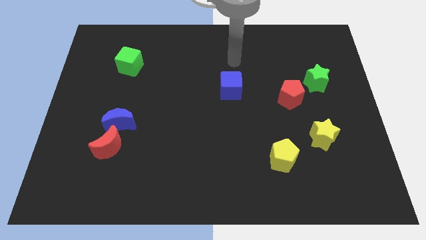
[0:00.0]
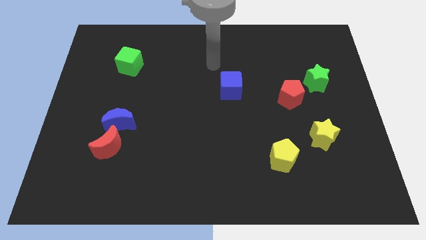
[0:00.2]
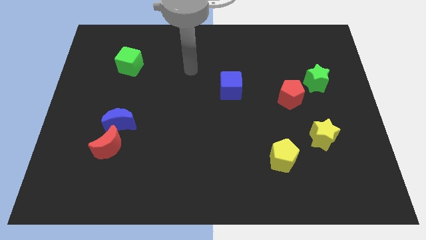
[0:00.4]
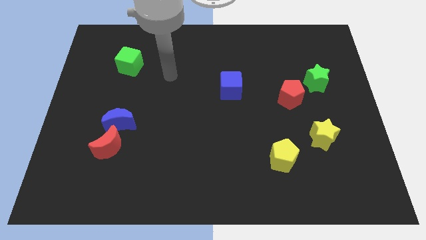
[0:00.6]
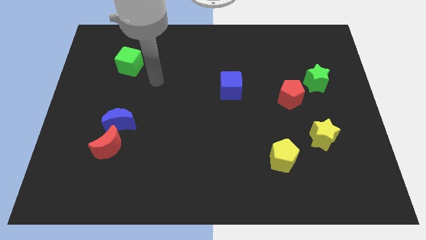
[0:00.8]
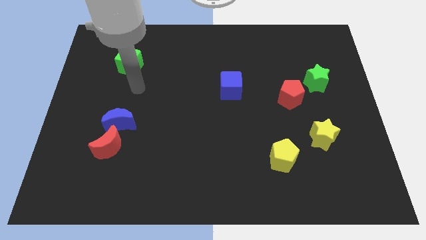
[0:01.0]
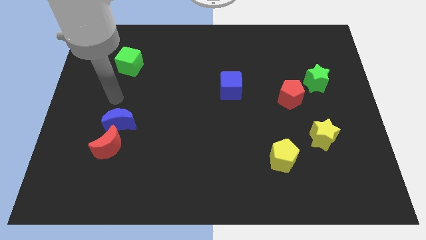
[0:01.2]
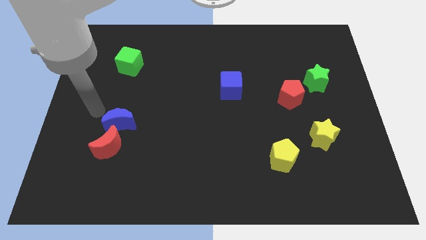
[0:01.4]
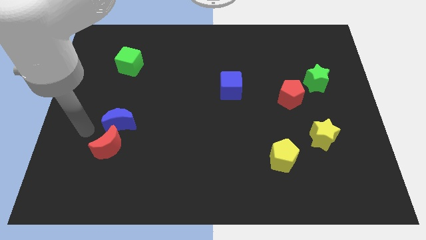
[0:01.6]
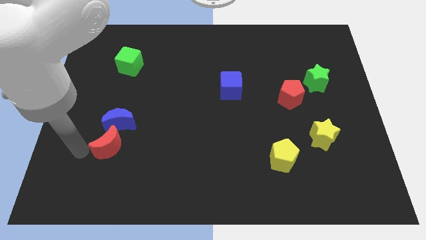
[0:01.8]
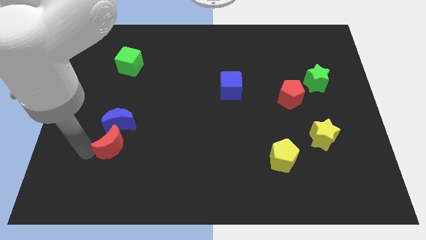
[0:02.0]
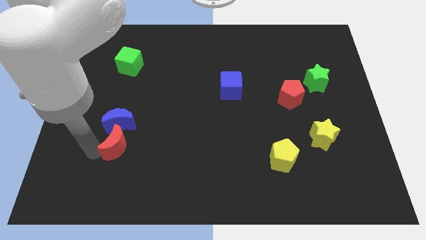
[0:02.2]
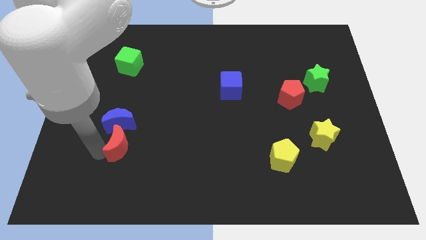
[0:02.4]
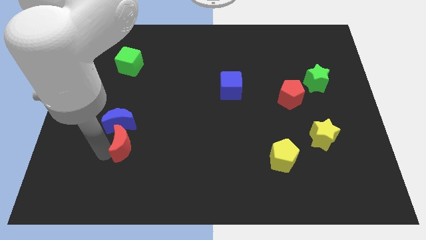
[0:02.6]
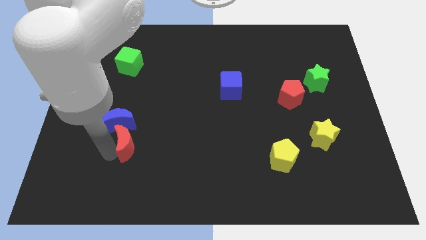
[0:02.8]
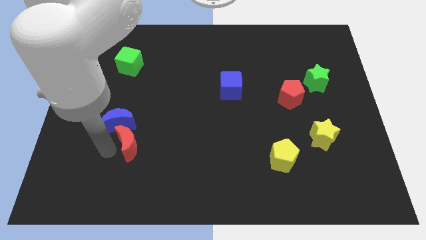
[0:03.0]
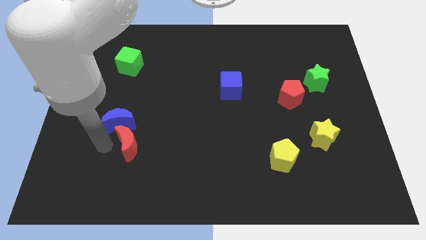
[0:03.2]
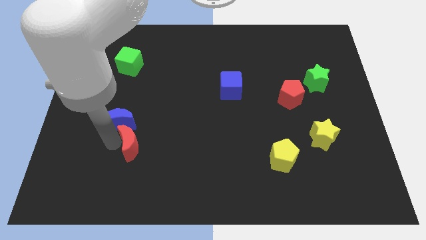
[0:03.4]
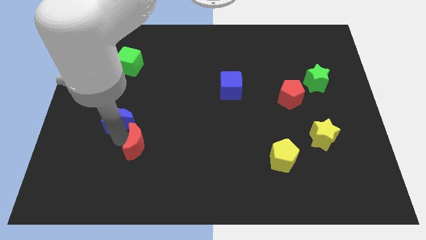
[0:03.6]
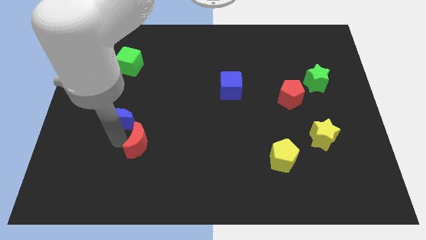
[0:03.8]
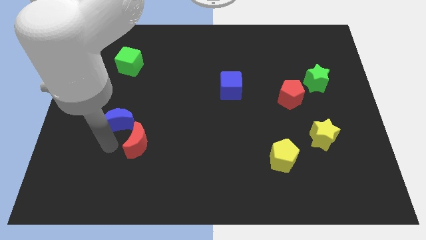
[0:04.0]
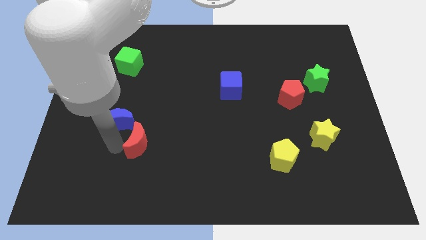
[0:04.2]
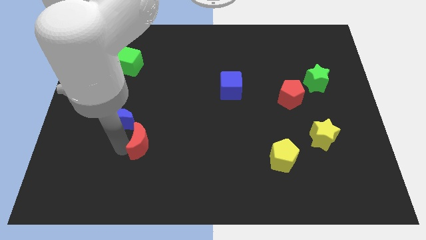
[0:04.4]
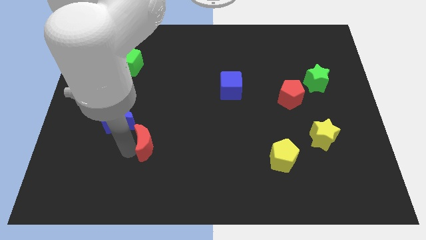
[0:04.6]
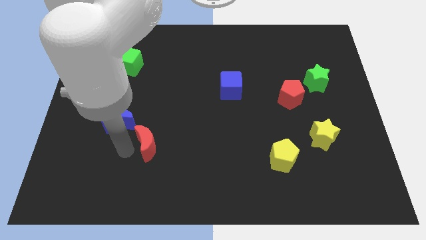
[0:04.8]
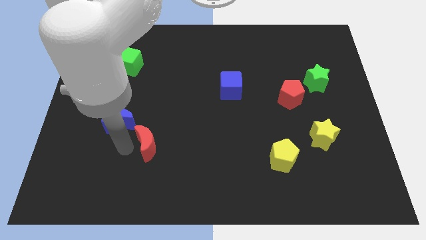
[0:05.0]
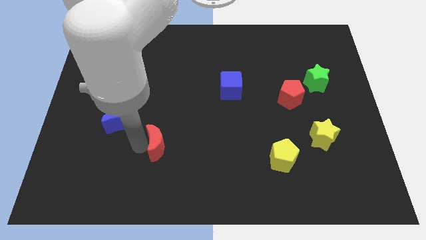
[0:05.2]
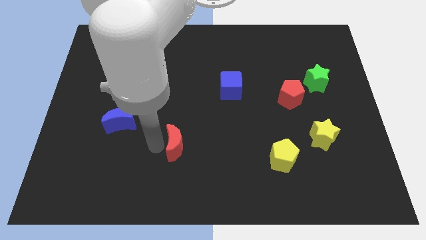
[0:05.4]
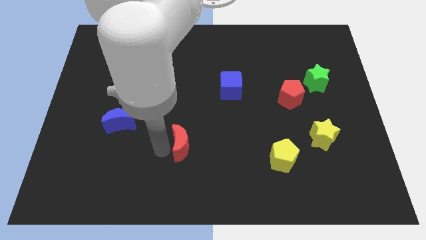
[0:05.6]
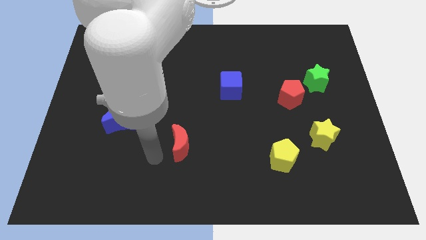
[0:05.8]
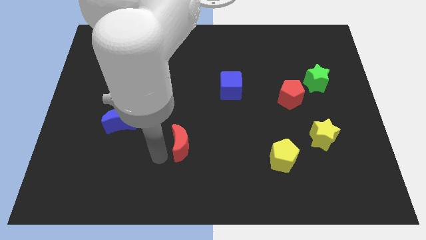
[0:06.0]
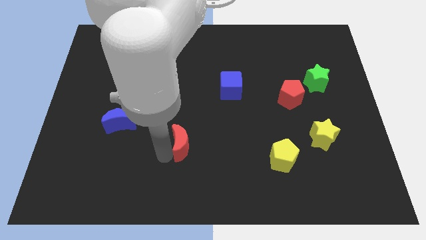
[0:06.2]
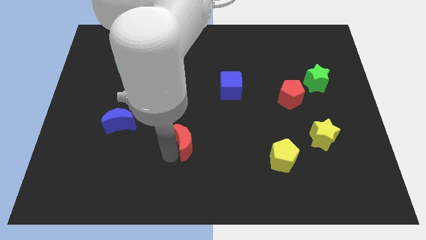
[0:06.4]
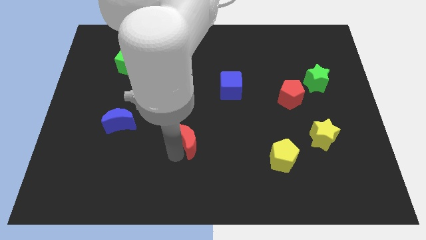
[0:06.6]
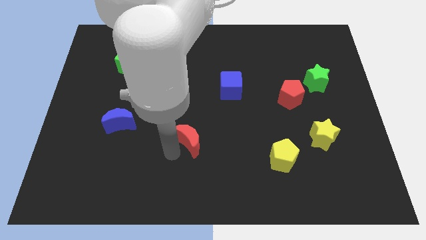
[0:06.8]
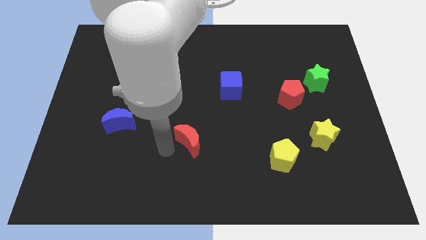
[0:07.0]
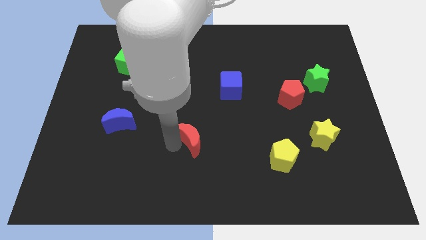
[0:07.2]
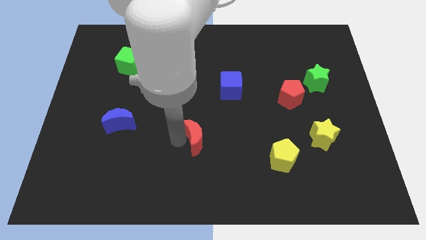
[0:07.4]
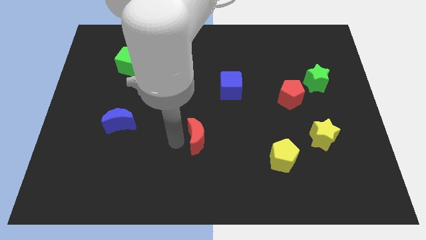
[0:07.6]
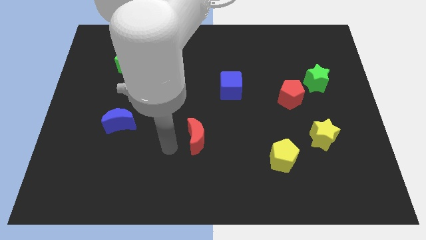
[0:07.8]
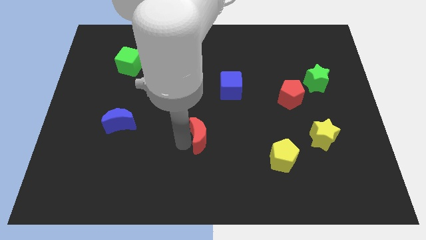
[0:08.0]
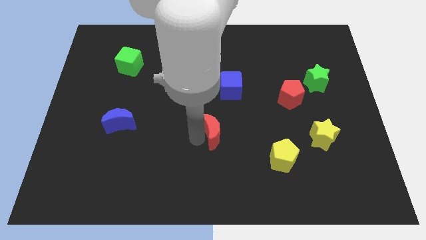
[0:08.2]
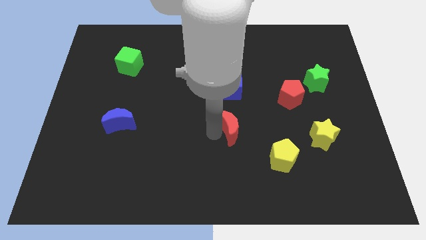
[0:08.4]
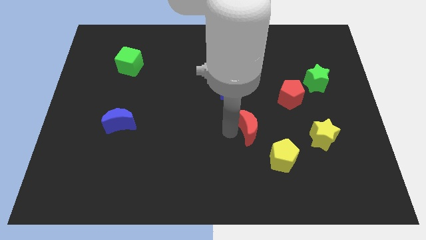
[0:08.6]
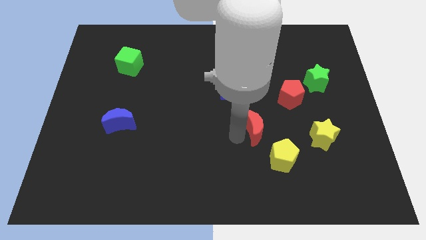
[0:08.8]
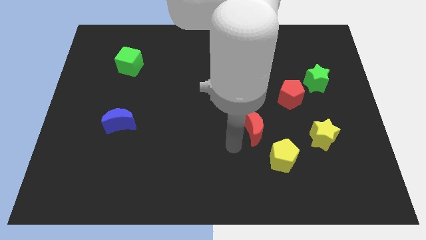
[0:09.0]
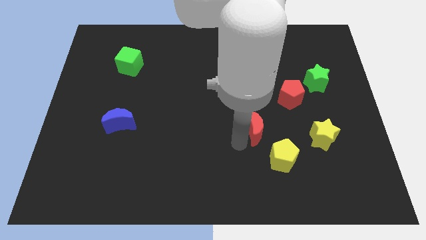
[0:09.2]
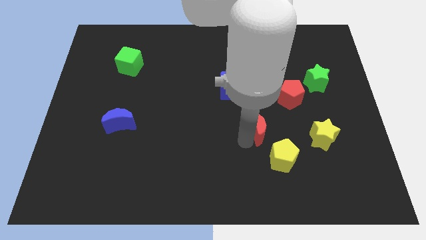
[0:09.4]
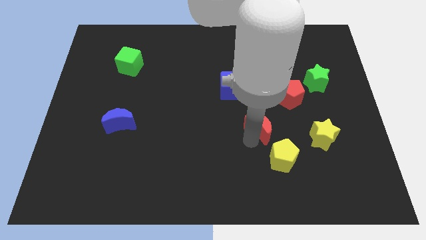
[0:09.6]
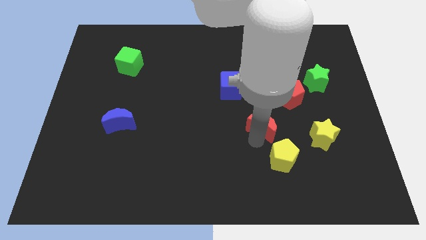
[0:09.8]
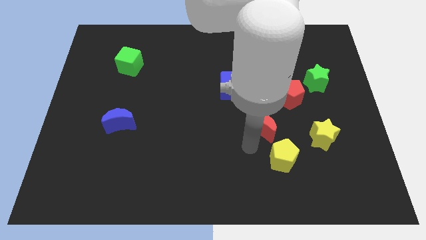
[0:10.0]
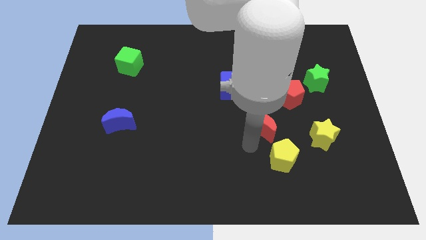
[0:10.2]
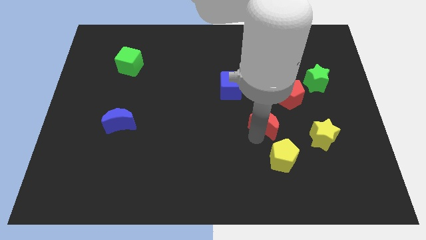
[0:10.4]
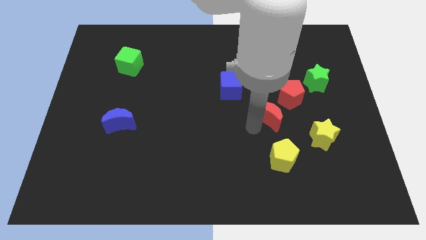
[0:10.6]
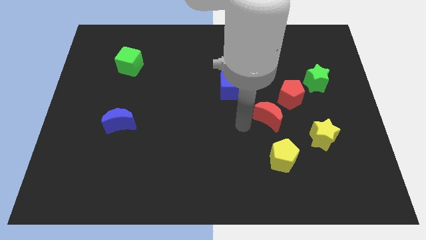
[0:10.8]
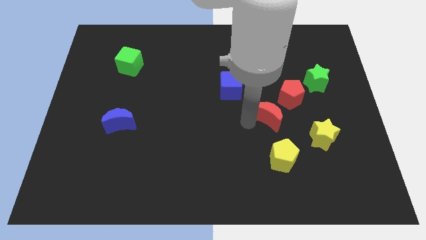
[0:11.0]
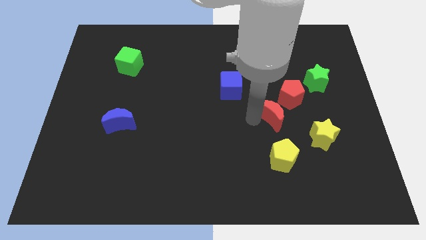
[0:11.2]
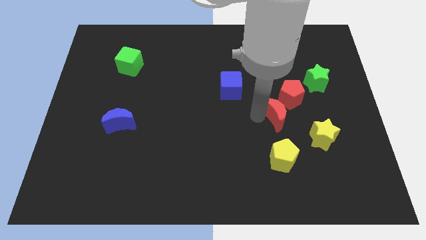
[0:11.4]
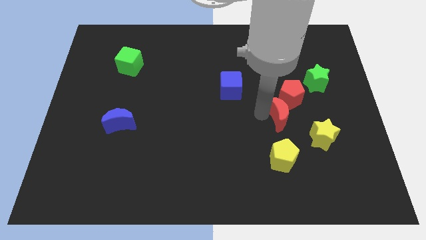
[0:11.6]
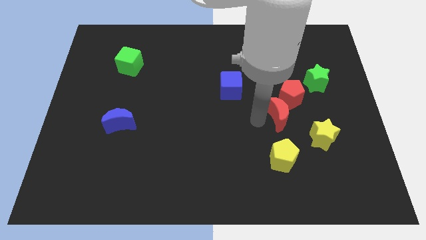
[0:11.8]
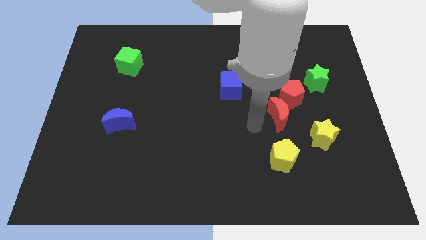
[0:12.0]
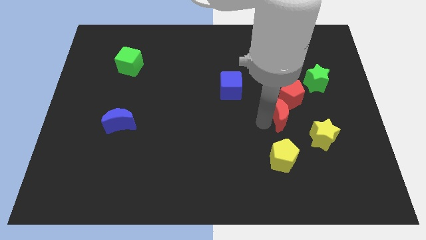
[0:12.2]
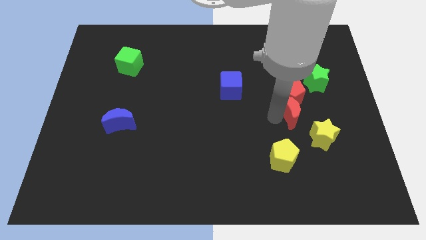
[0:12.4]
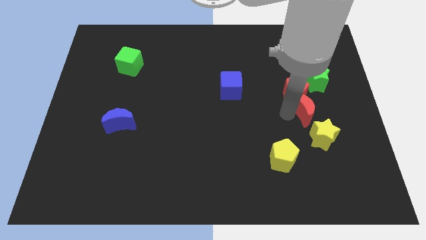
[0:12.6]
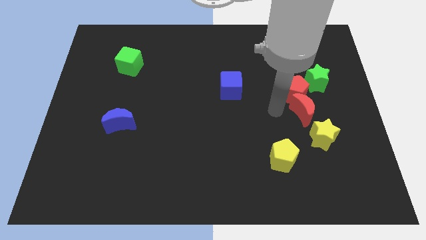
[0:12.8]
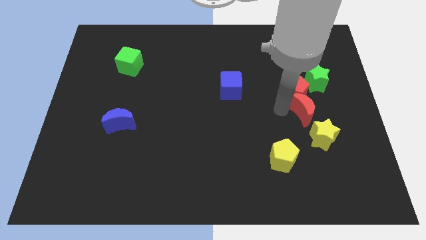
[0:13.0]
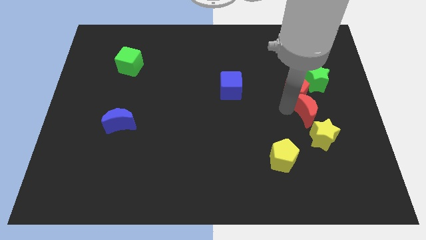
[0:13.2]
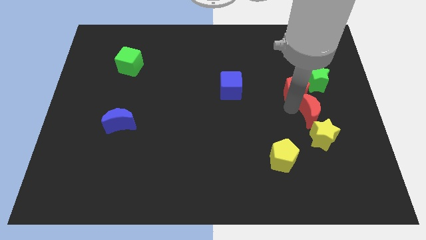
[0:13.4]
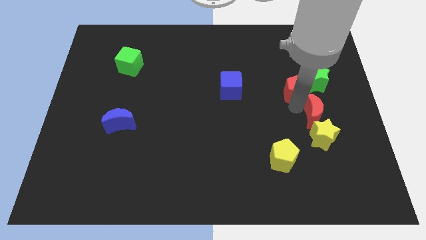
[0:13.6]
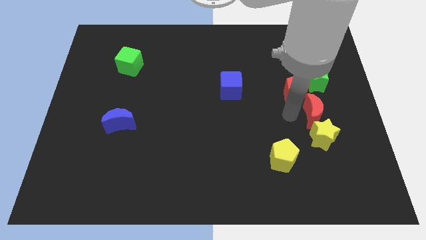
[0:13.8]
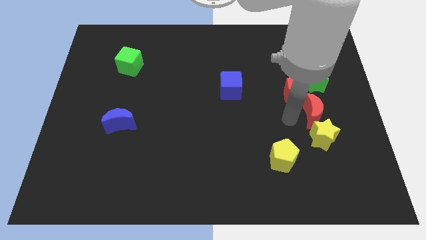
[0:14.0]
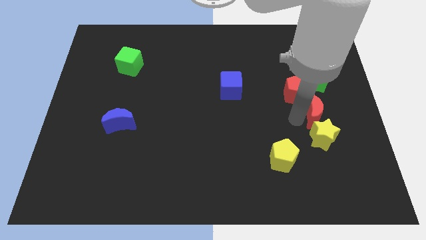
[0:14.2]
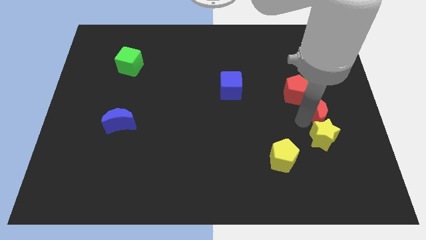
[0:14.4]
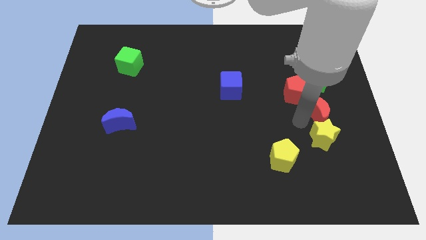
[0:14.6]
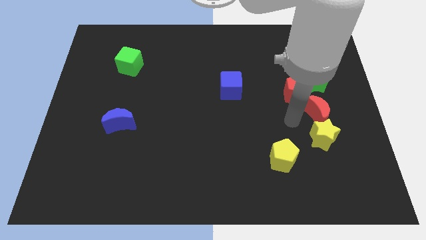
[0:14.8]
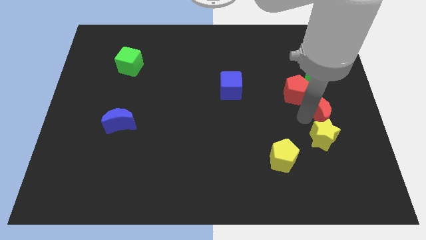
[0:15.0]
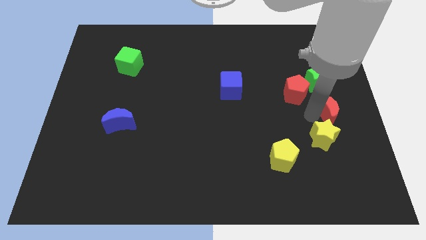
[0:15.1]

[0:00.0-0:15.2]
slide the red moon to the right side
